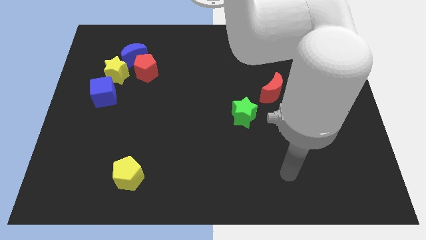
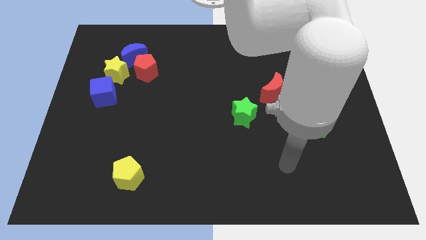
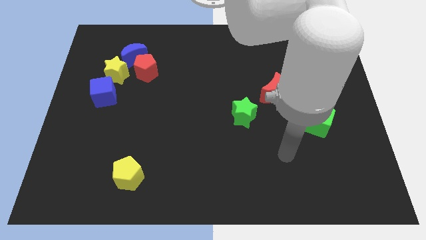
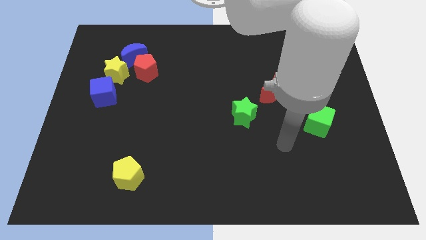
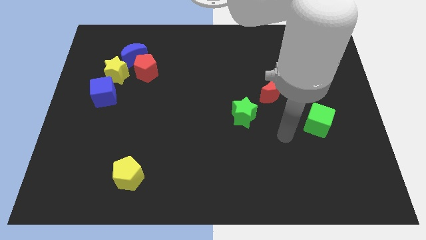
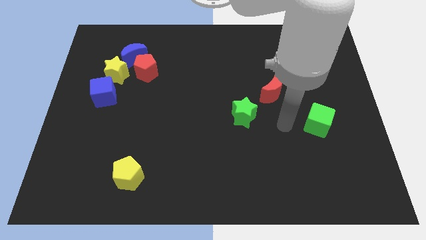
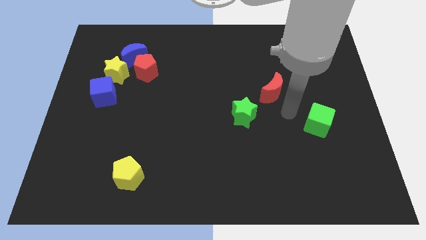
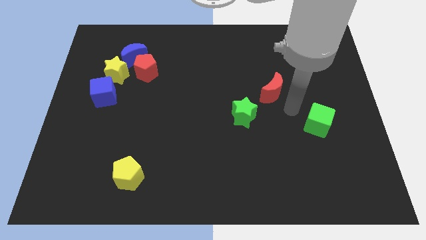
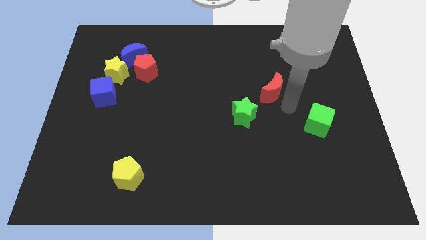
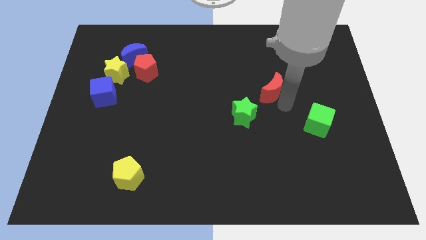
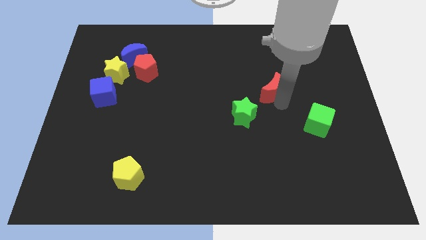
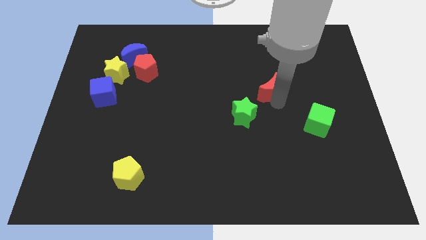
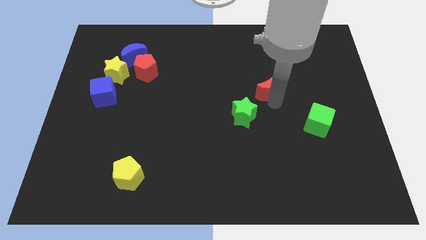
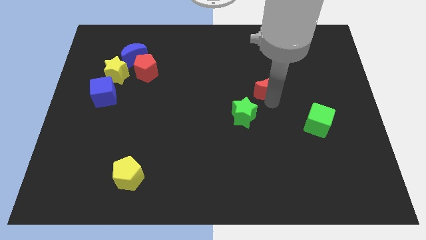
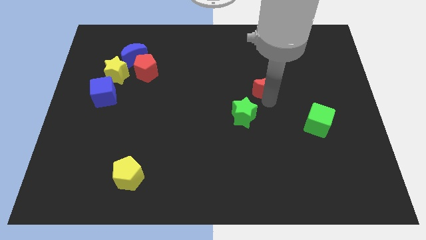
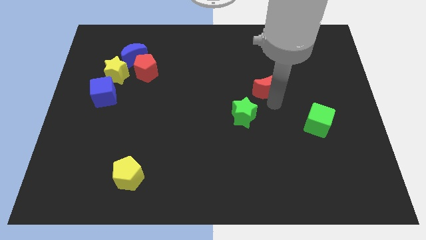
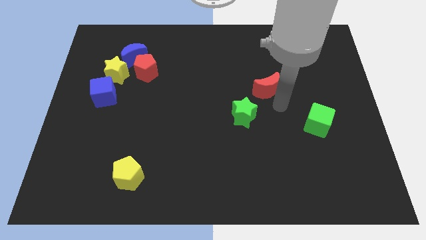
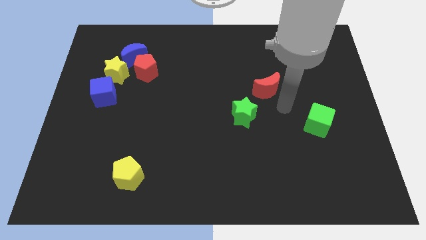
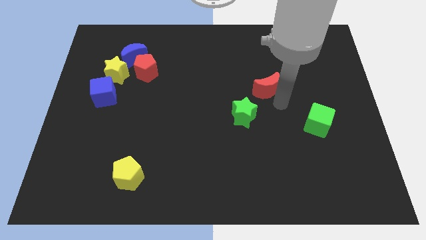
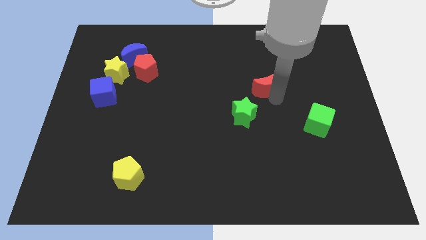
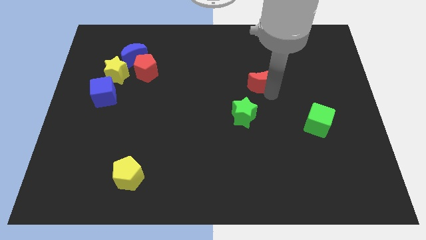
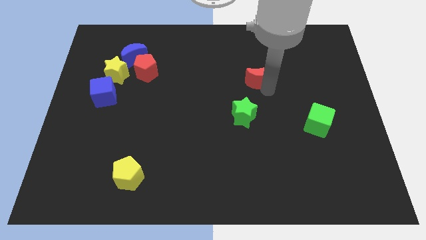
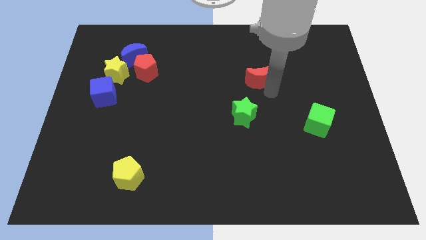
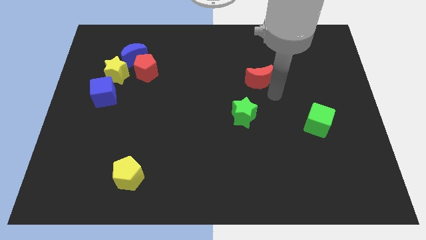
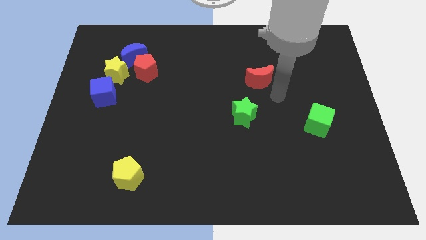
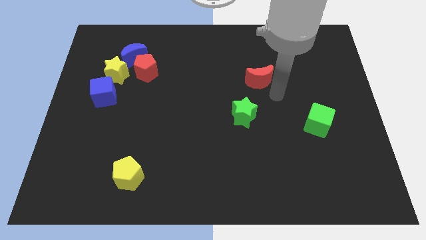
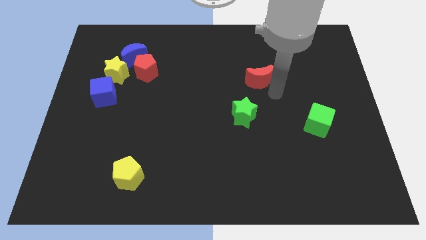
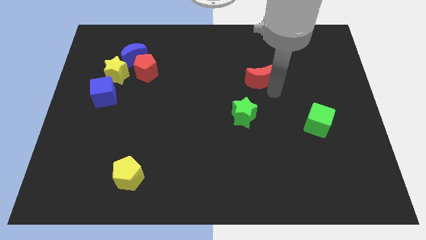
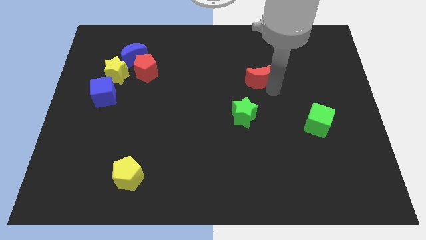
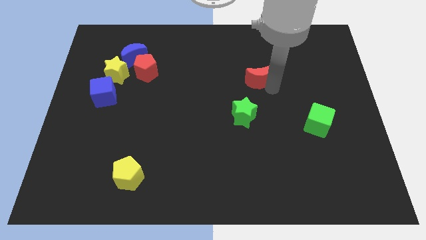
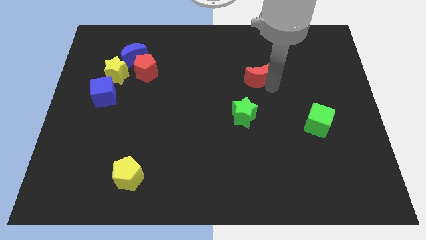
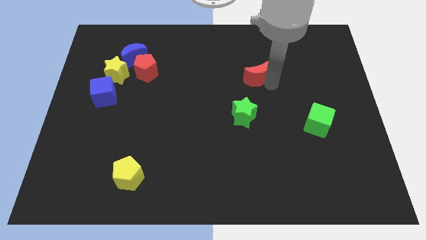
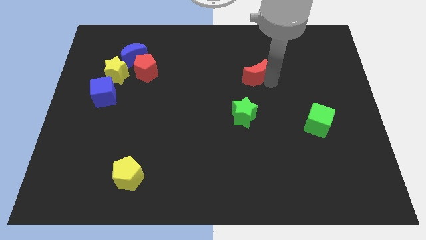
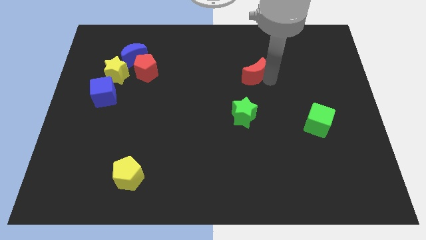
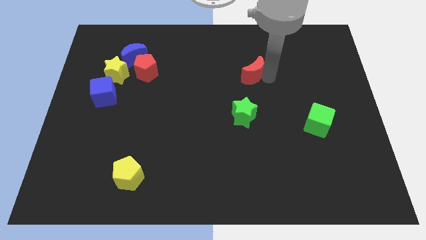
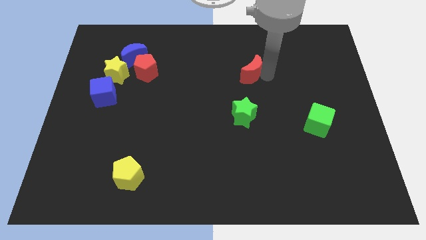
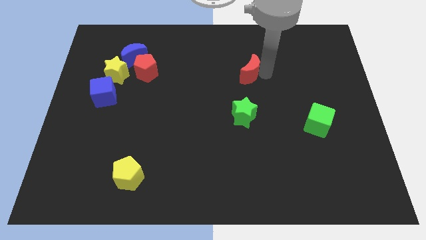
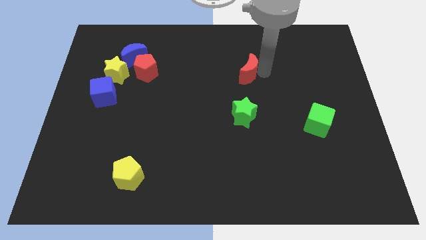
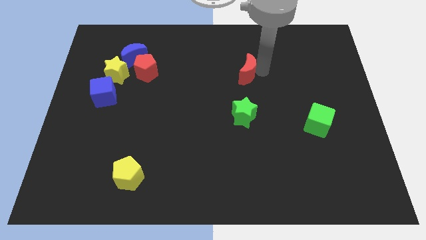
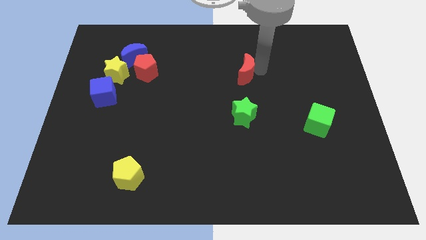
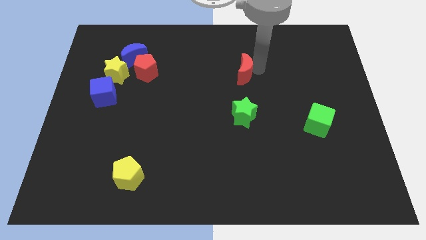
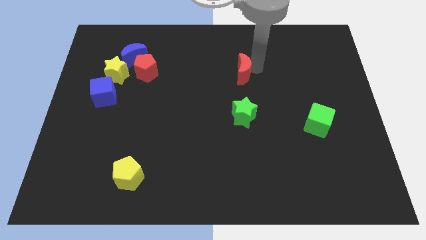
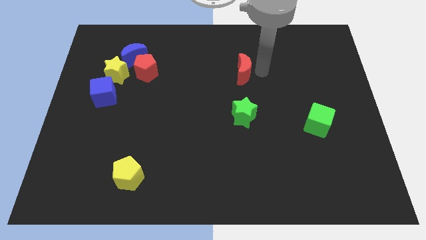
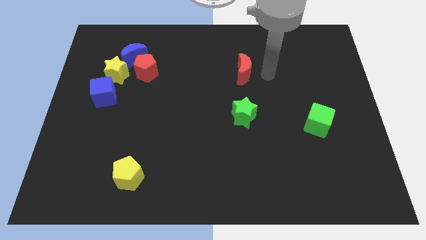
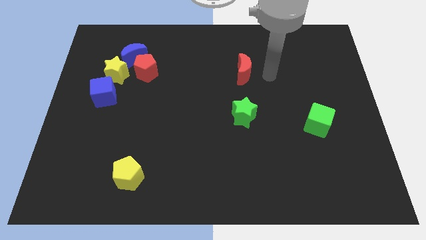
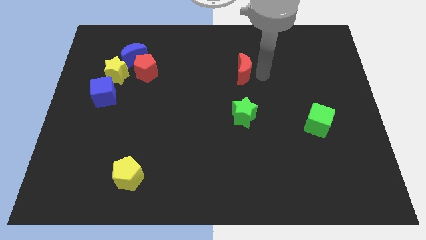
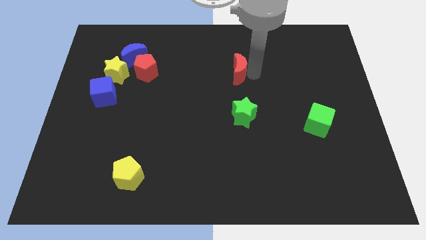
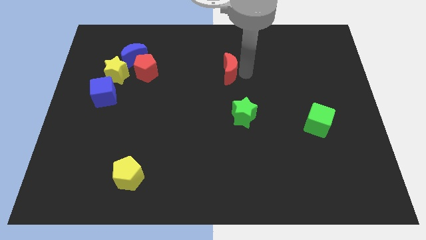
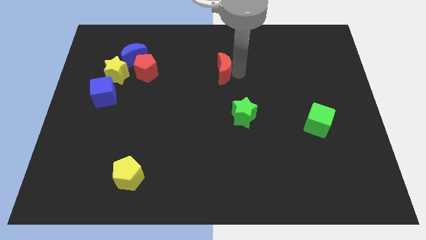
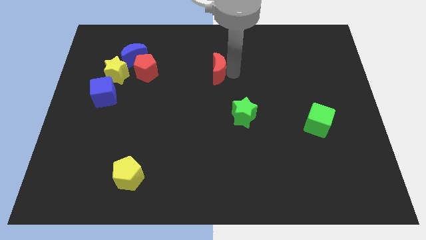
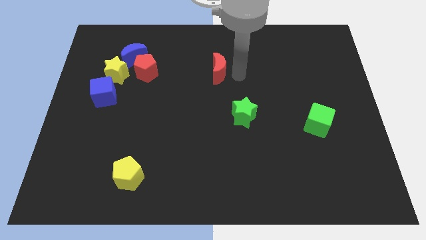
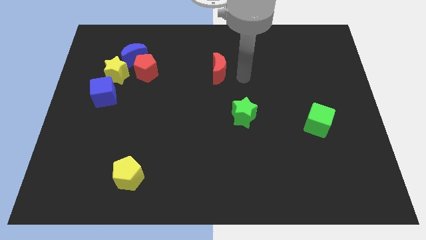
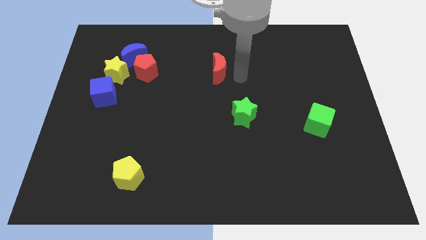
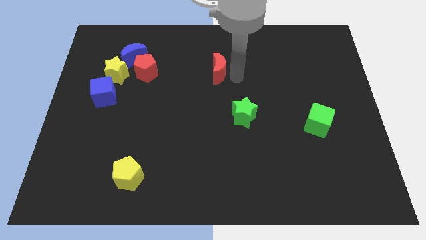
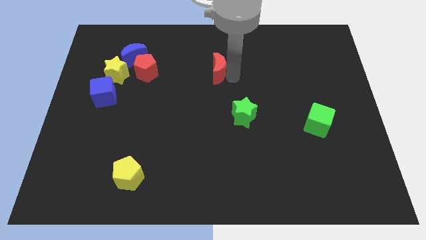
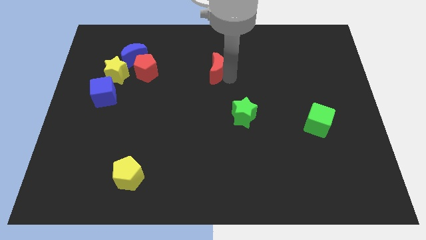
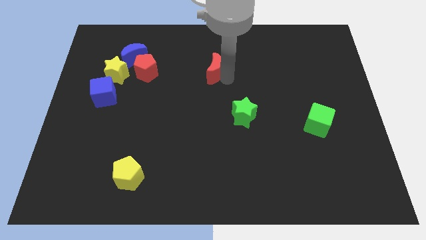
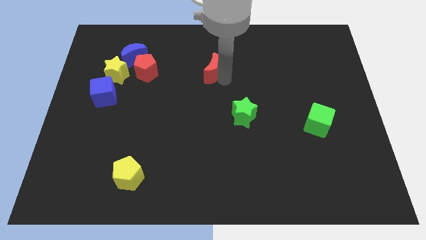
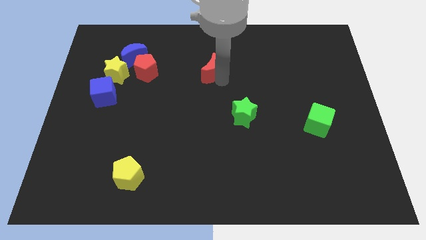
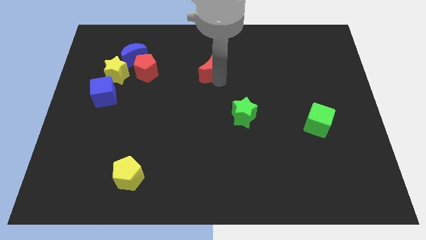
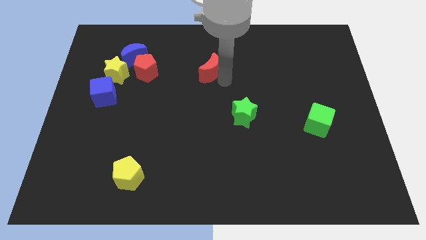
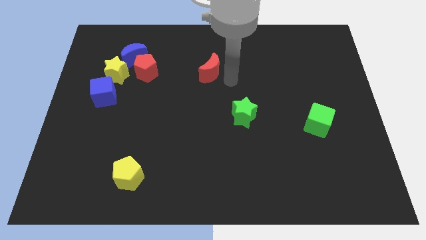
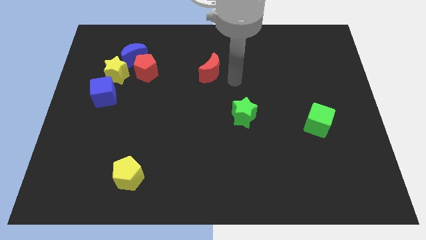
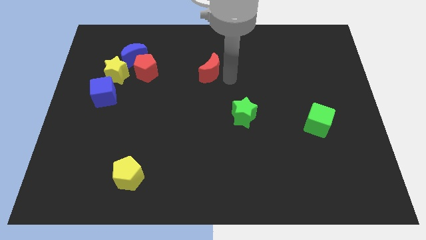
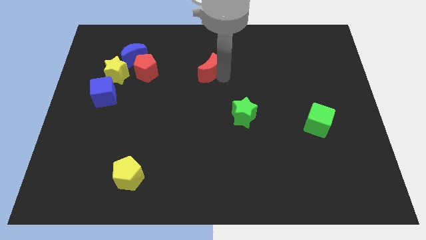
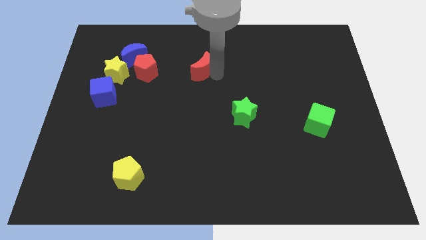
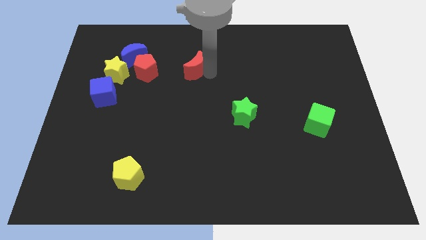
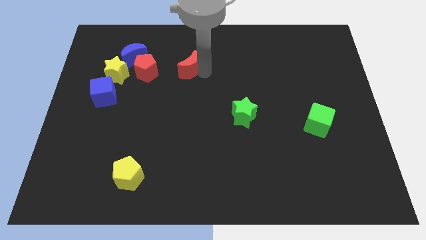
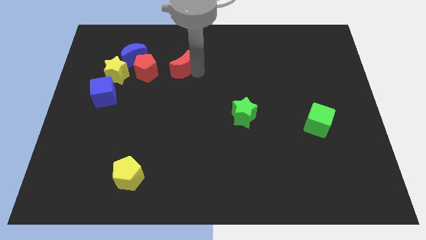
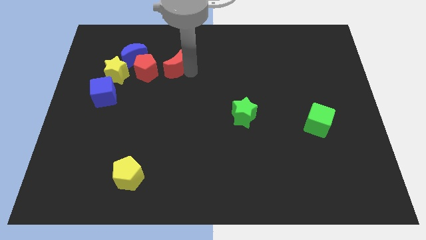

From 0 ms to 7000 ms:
slide the red moon diagonally up and to the right of the red pentagon

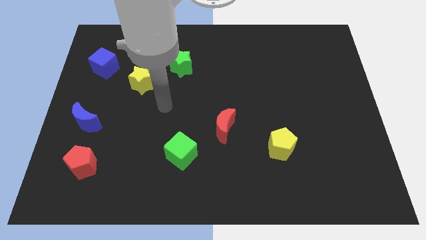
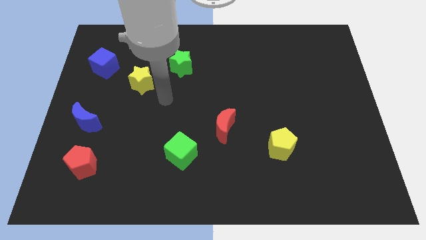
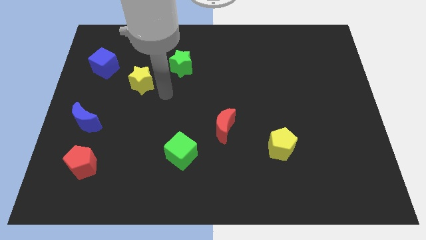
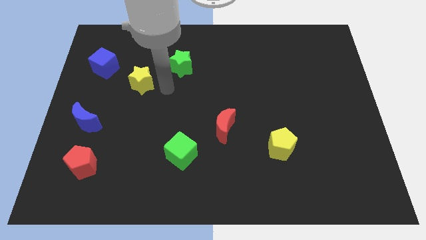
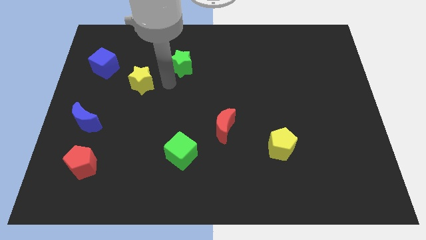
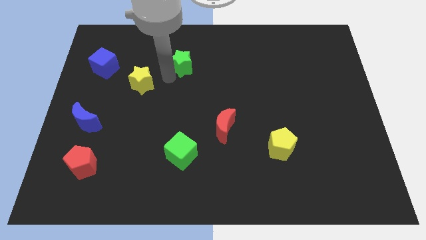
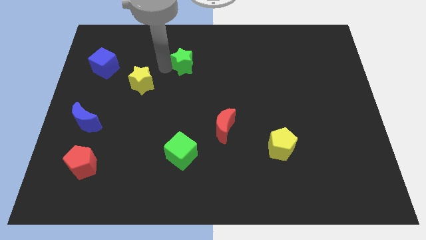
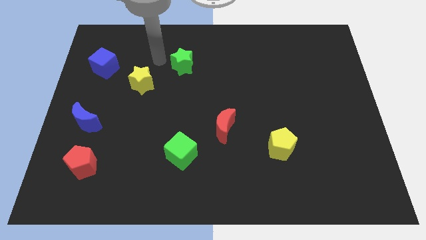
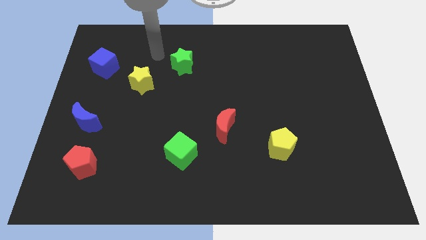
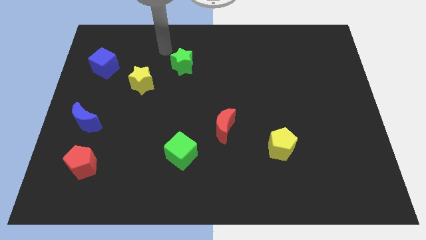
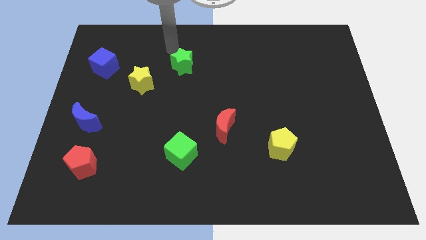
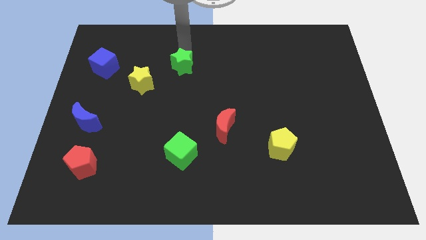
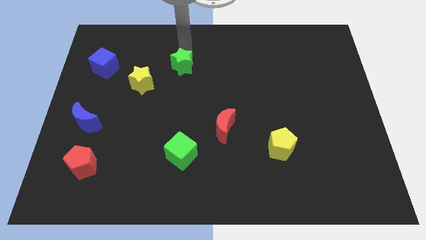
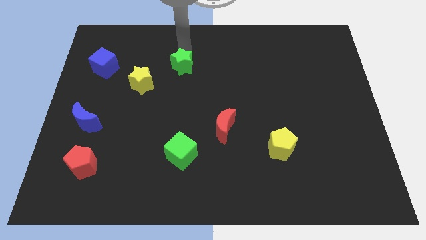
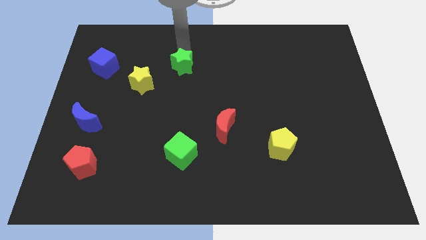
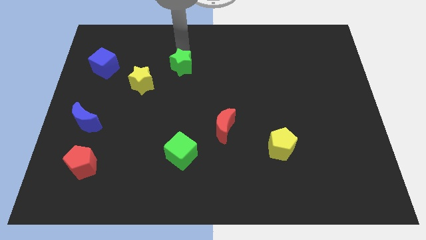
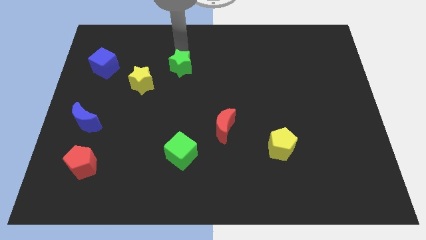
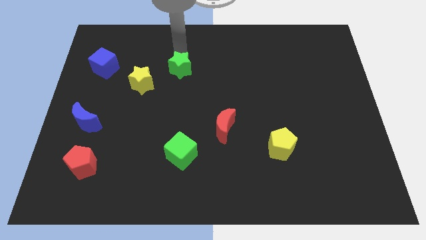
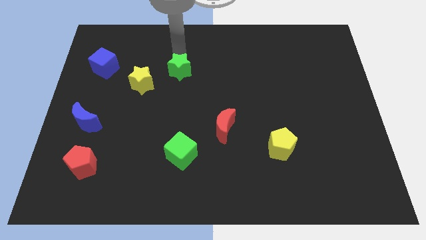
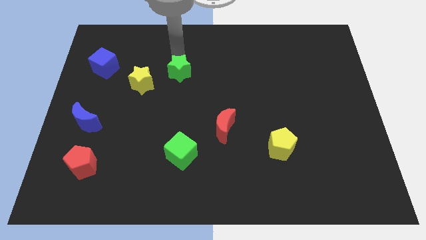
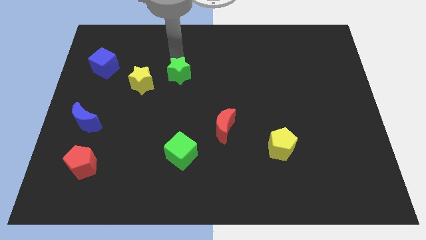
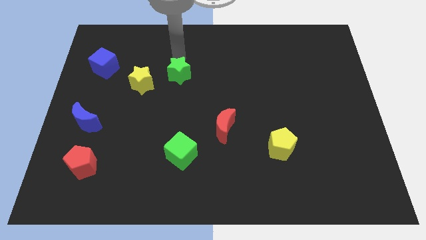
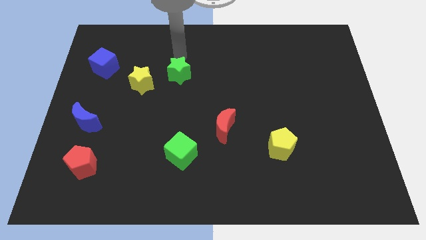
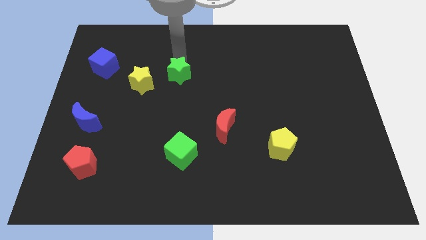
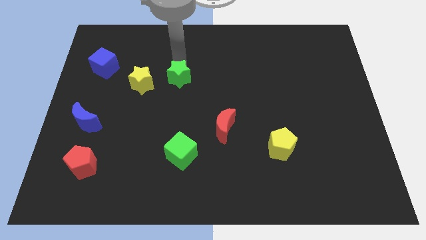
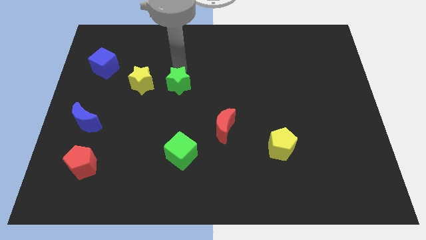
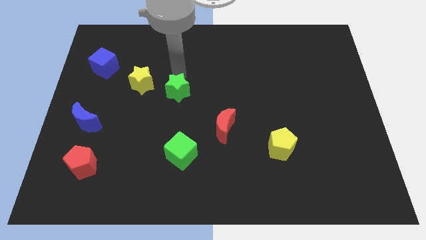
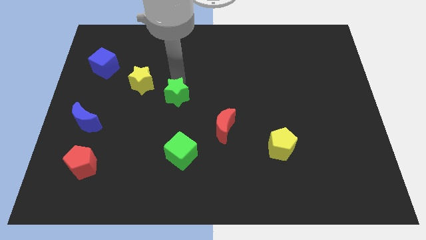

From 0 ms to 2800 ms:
put the green star to the top side of the green cube
